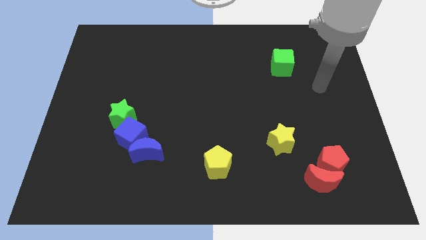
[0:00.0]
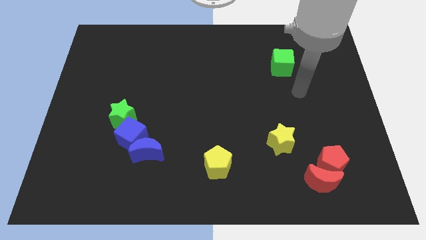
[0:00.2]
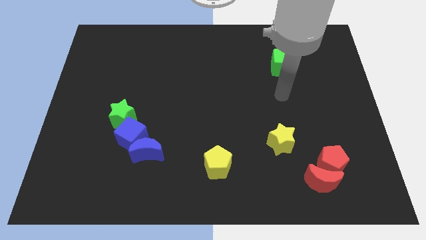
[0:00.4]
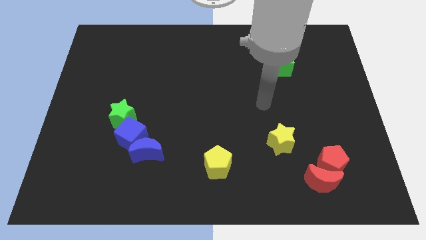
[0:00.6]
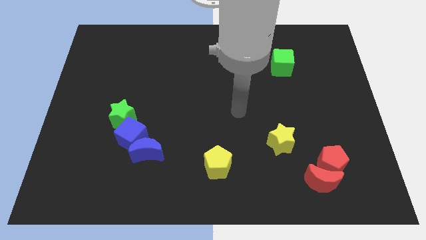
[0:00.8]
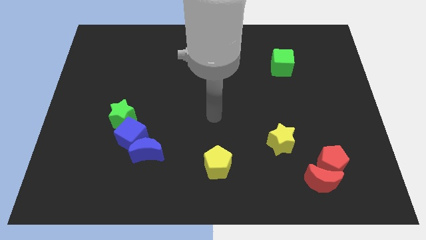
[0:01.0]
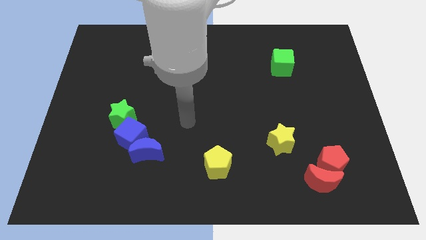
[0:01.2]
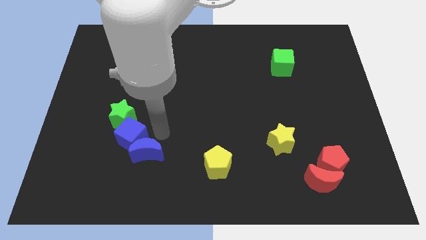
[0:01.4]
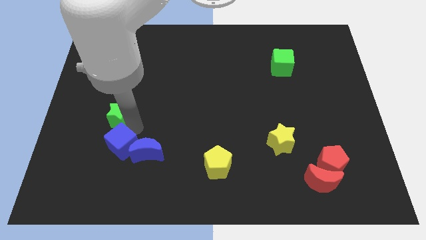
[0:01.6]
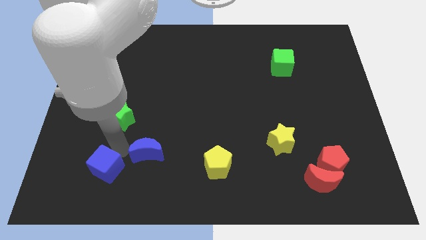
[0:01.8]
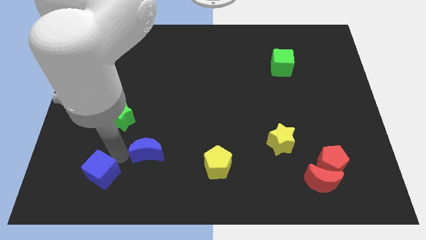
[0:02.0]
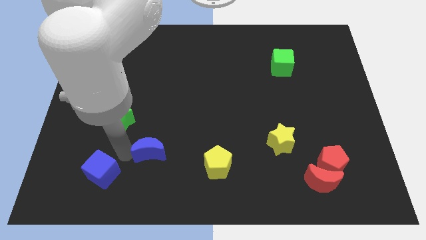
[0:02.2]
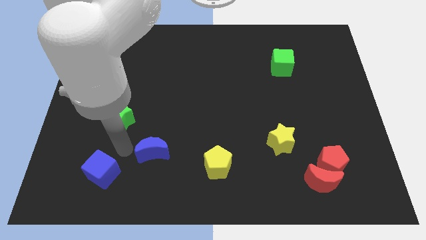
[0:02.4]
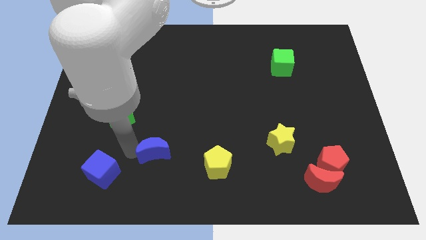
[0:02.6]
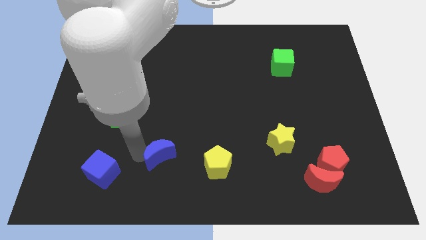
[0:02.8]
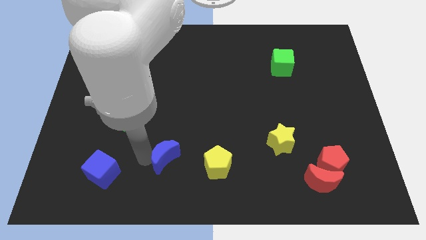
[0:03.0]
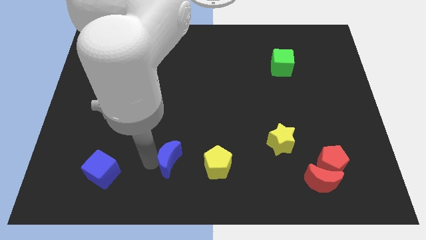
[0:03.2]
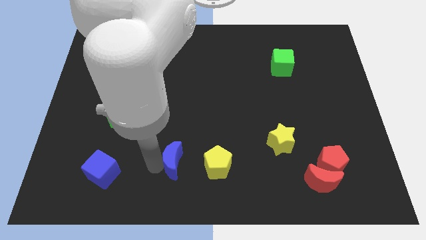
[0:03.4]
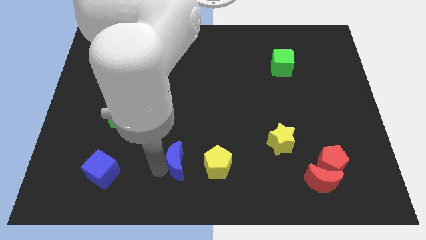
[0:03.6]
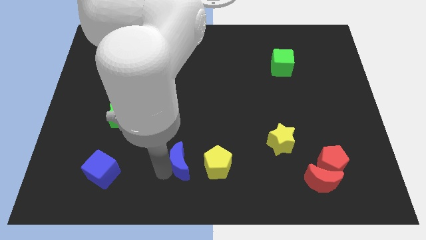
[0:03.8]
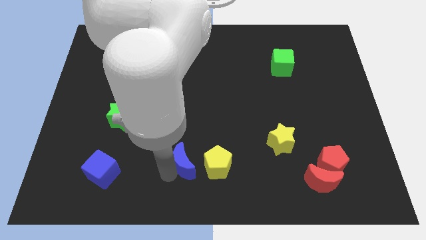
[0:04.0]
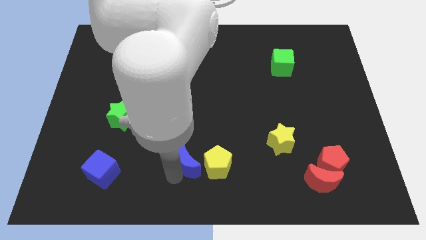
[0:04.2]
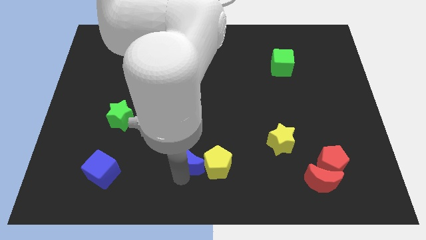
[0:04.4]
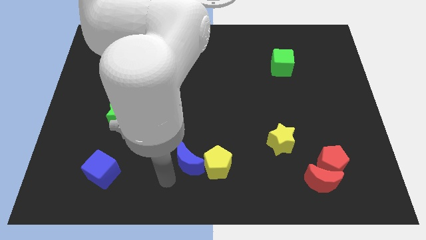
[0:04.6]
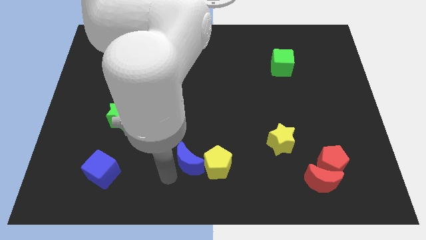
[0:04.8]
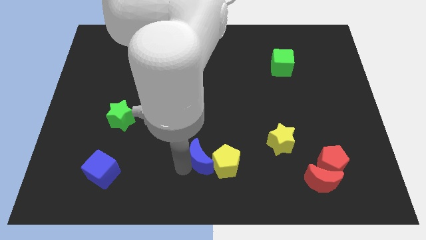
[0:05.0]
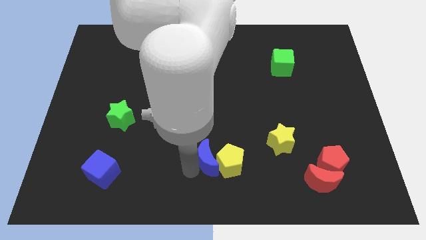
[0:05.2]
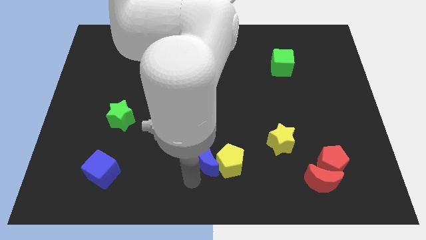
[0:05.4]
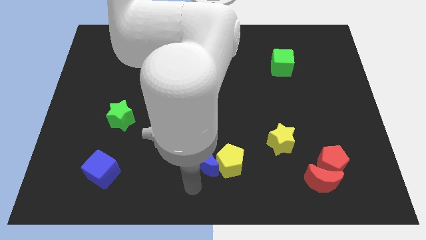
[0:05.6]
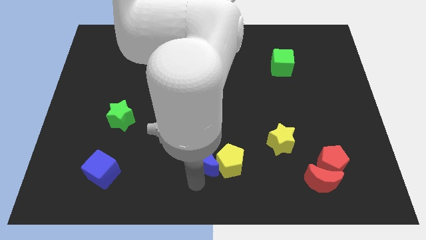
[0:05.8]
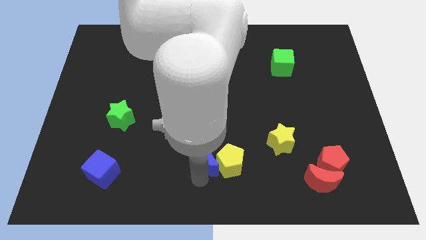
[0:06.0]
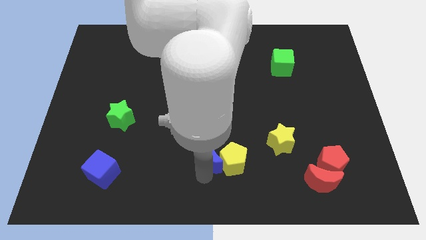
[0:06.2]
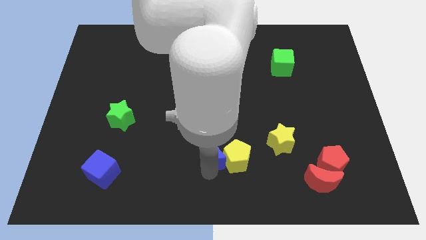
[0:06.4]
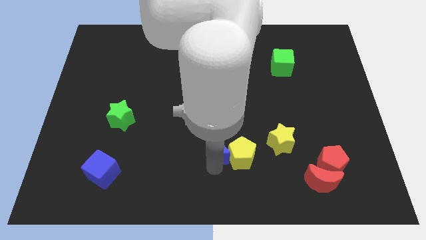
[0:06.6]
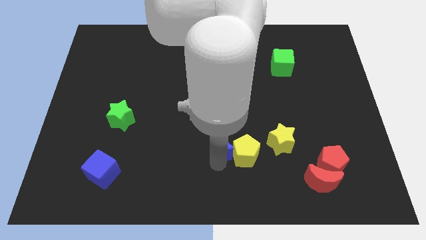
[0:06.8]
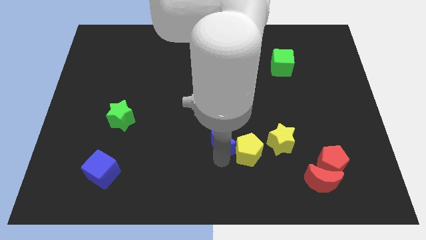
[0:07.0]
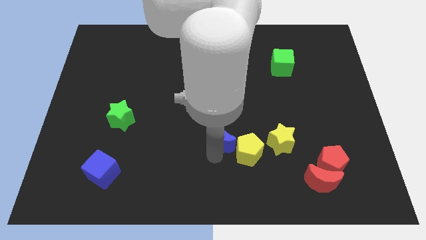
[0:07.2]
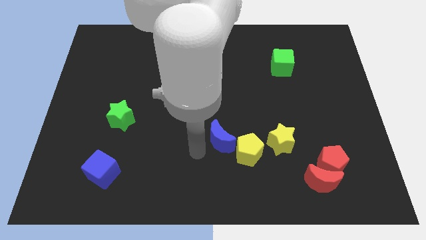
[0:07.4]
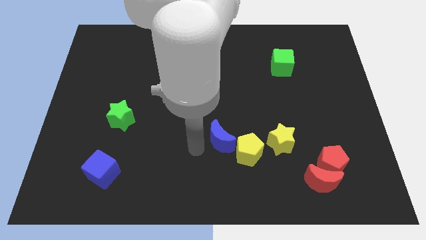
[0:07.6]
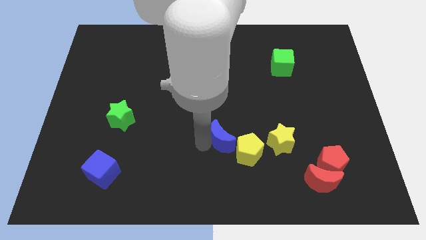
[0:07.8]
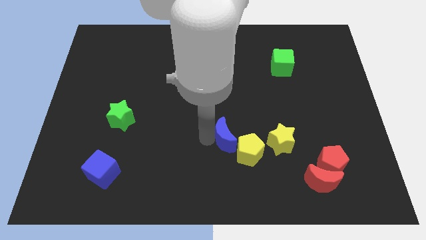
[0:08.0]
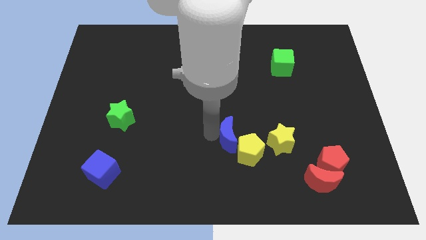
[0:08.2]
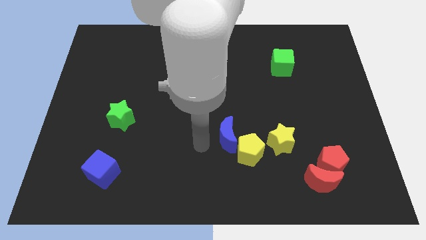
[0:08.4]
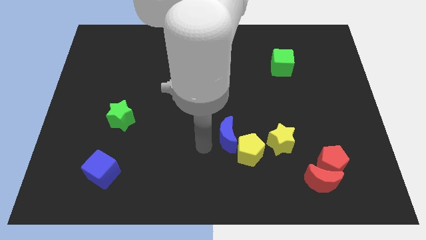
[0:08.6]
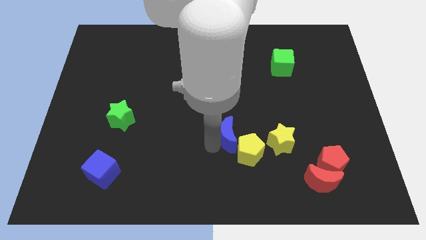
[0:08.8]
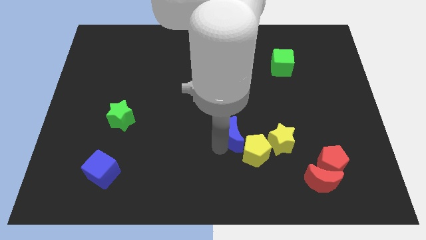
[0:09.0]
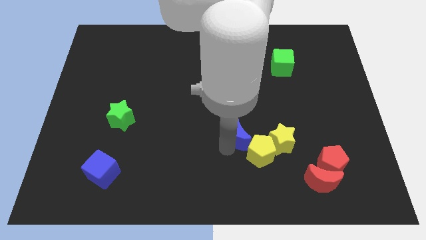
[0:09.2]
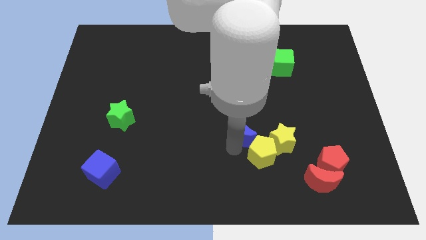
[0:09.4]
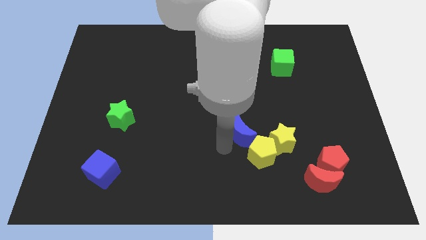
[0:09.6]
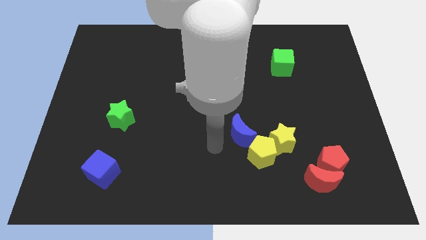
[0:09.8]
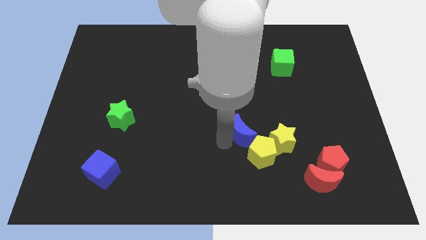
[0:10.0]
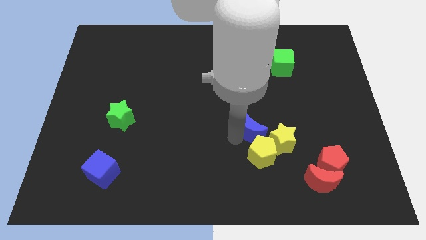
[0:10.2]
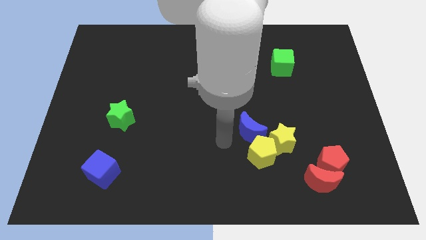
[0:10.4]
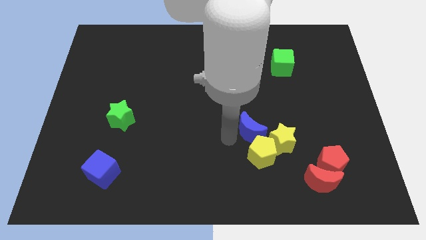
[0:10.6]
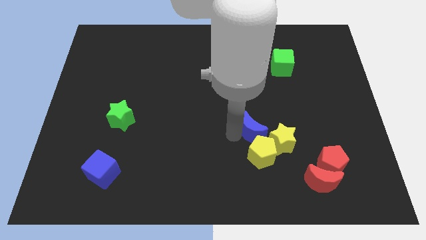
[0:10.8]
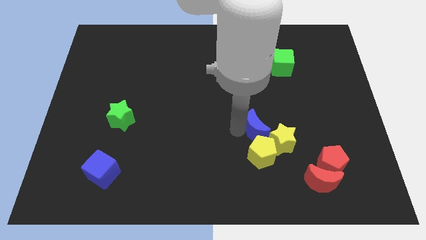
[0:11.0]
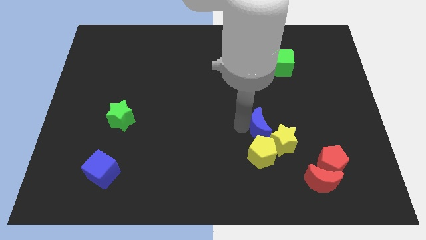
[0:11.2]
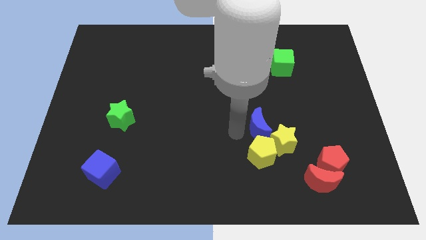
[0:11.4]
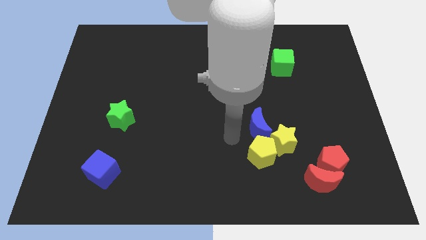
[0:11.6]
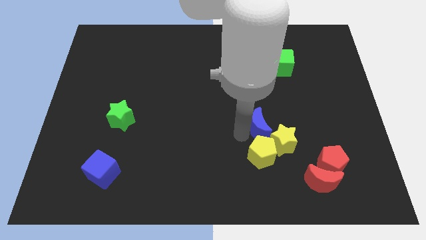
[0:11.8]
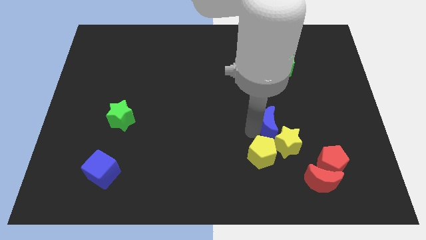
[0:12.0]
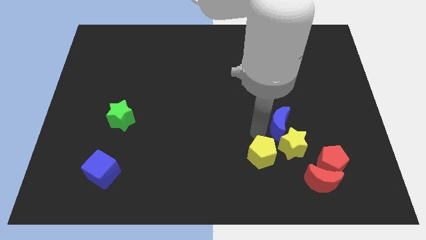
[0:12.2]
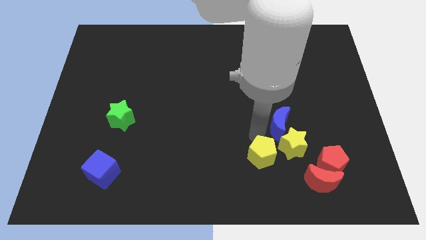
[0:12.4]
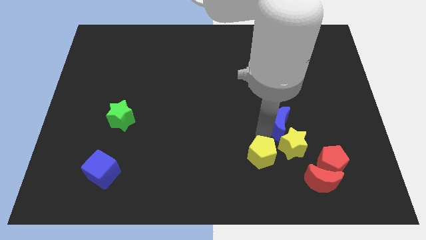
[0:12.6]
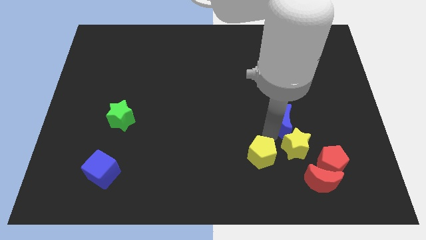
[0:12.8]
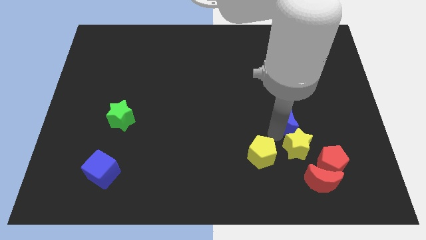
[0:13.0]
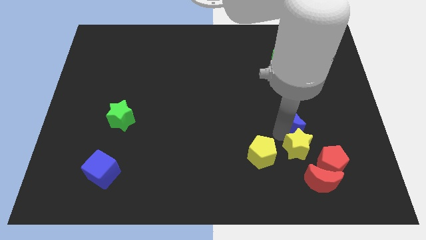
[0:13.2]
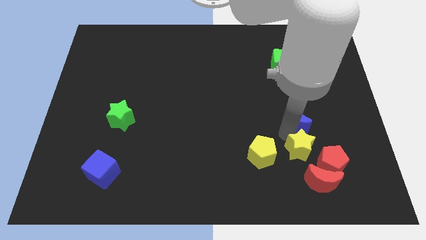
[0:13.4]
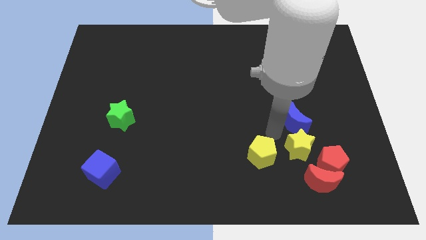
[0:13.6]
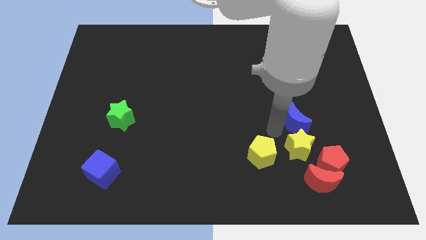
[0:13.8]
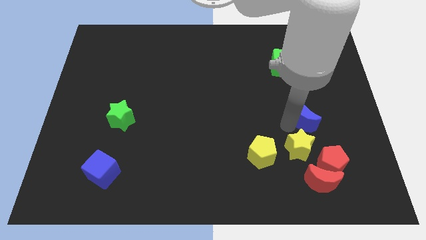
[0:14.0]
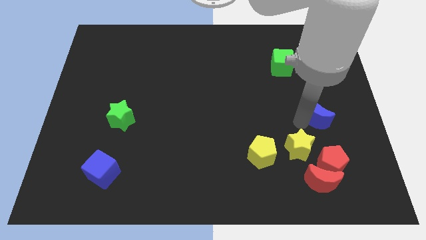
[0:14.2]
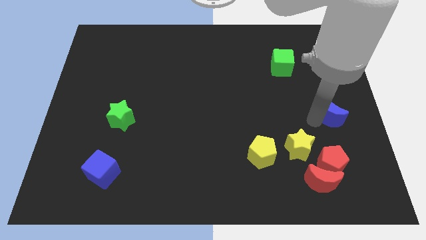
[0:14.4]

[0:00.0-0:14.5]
move the blue moon to the right side
